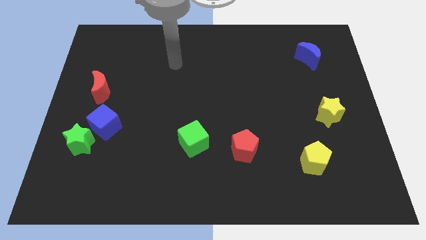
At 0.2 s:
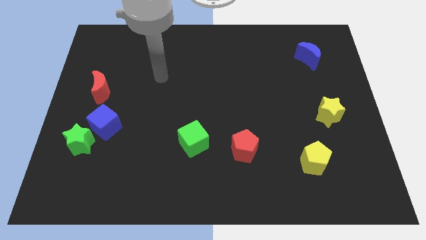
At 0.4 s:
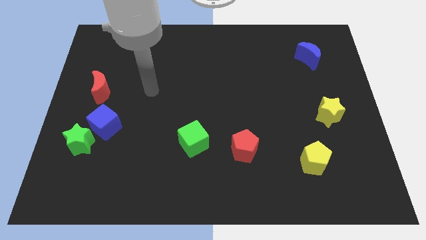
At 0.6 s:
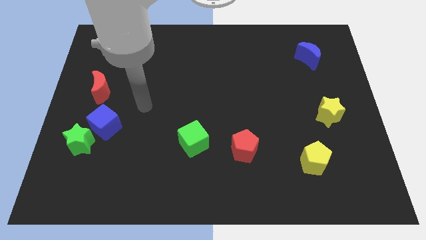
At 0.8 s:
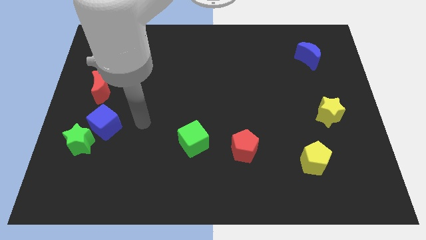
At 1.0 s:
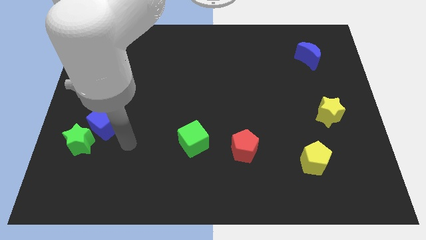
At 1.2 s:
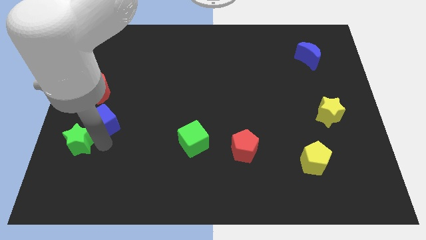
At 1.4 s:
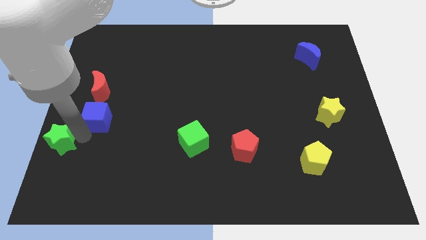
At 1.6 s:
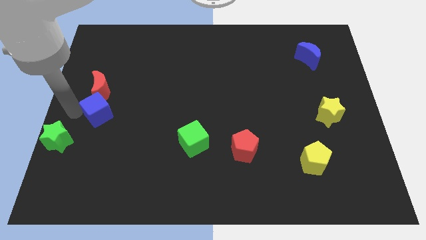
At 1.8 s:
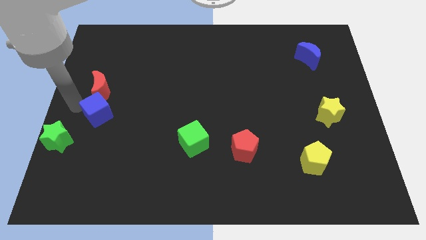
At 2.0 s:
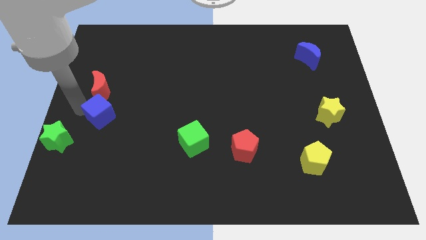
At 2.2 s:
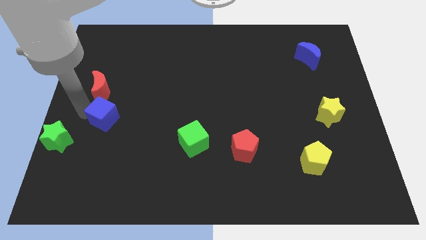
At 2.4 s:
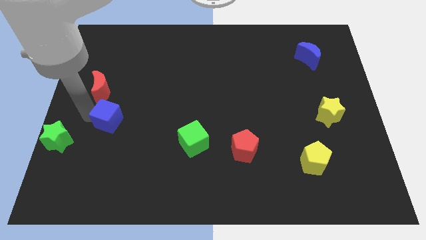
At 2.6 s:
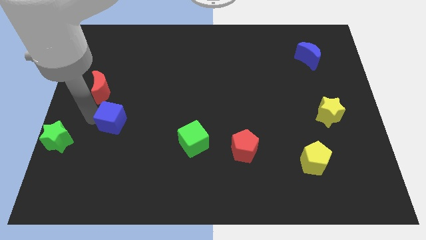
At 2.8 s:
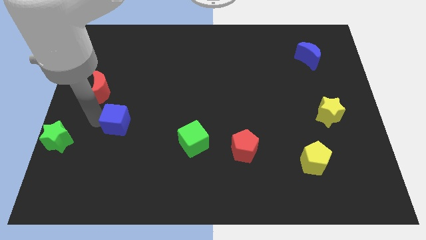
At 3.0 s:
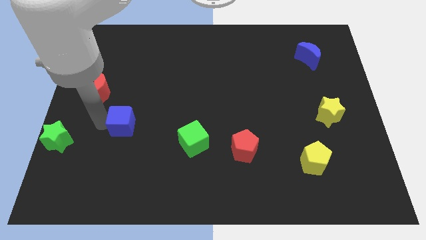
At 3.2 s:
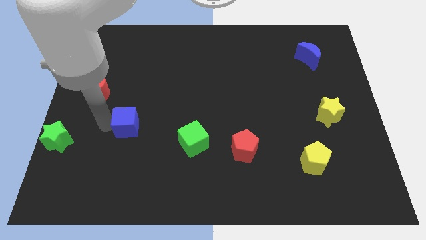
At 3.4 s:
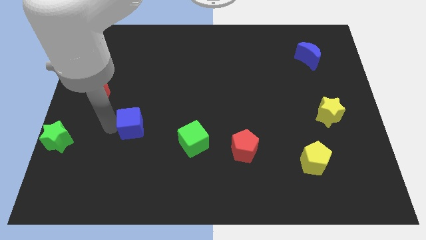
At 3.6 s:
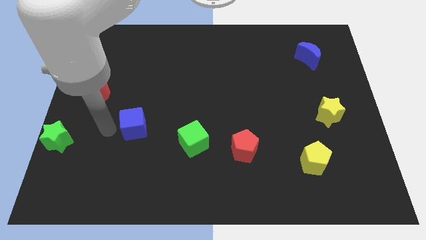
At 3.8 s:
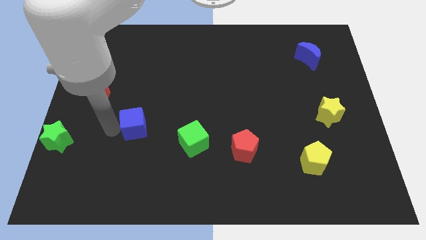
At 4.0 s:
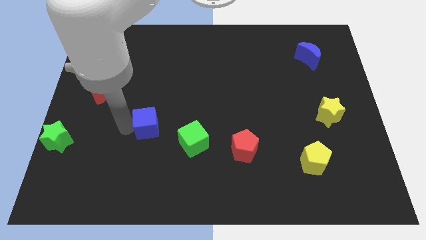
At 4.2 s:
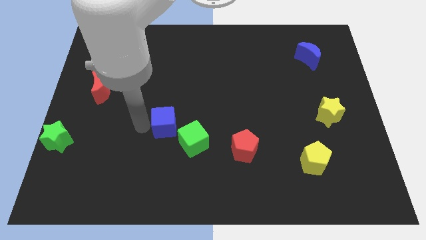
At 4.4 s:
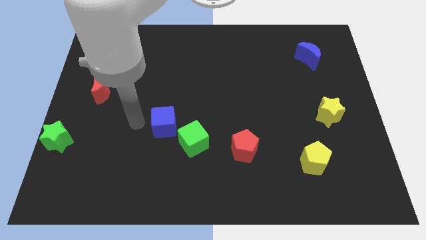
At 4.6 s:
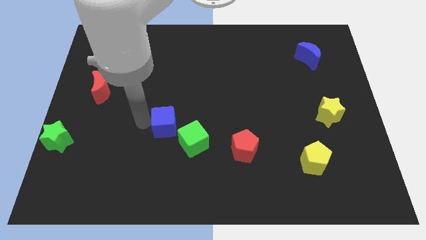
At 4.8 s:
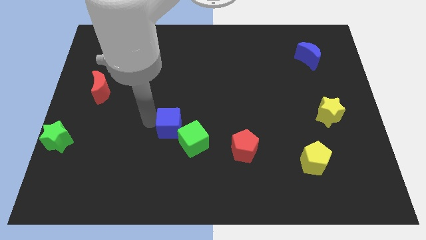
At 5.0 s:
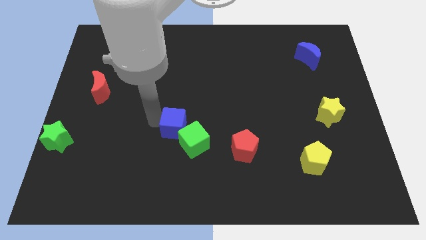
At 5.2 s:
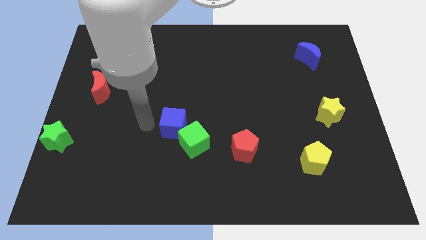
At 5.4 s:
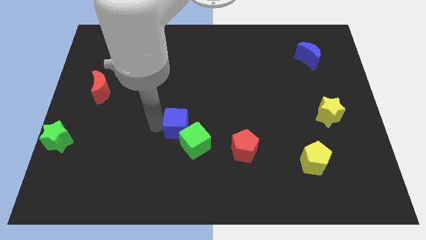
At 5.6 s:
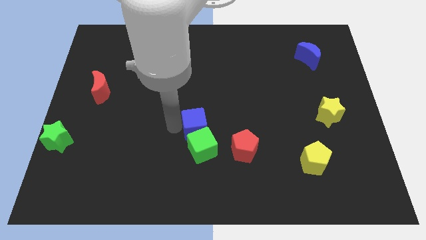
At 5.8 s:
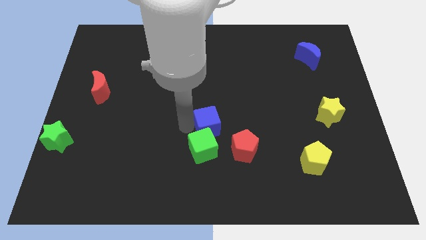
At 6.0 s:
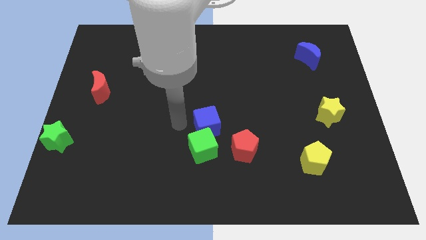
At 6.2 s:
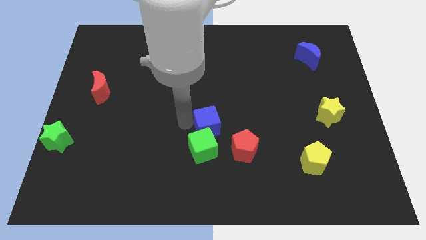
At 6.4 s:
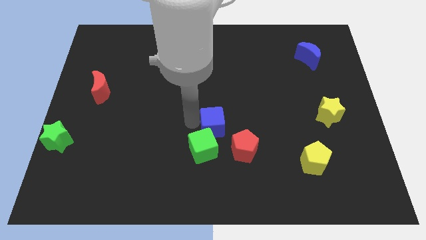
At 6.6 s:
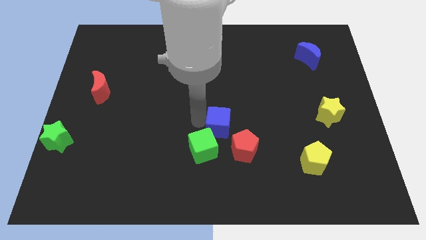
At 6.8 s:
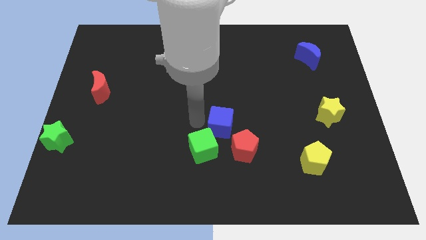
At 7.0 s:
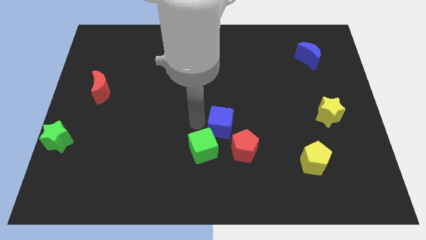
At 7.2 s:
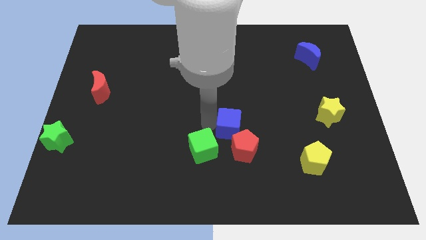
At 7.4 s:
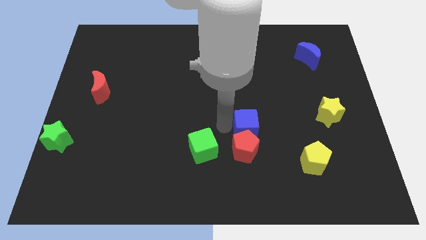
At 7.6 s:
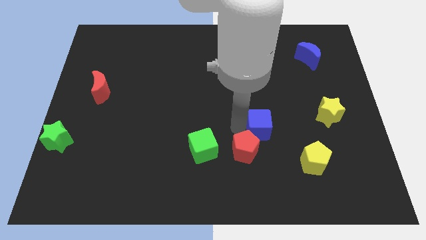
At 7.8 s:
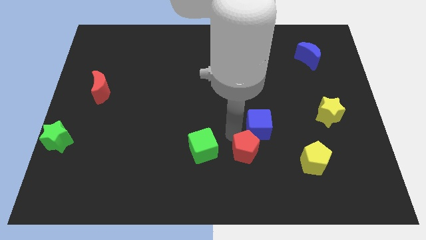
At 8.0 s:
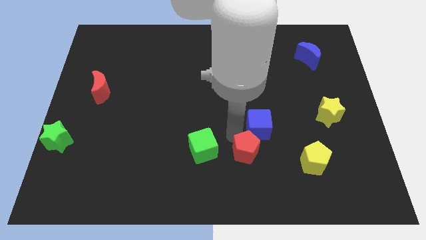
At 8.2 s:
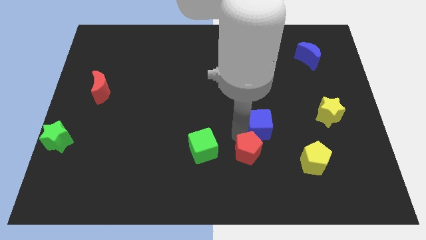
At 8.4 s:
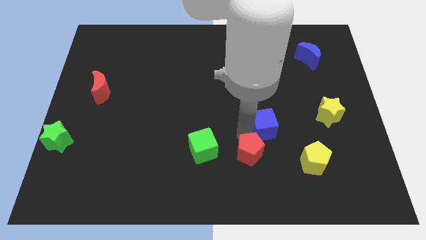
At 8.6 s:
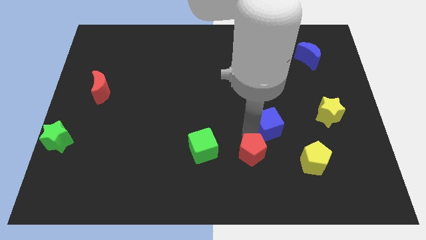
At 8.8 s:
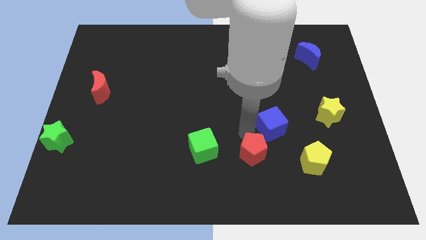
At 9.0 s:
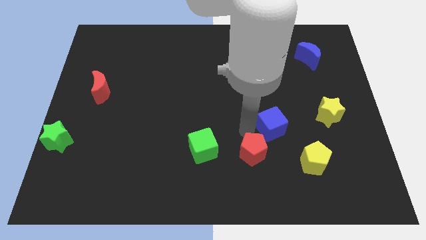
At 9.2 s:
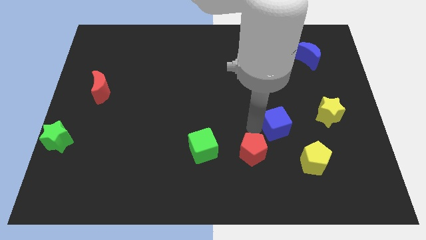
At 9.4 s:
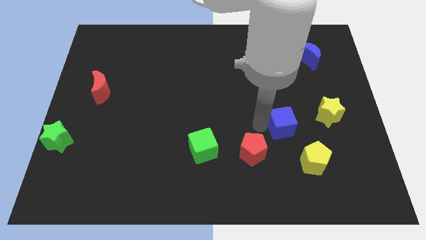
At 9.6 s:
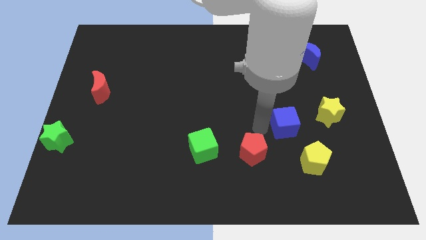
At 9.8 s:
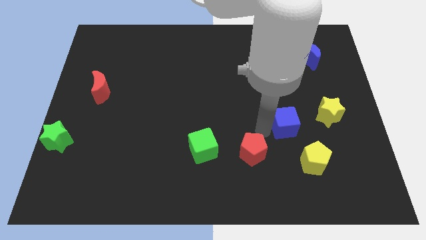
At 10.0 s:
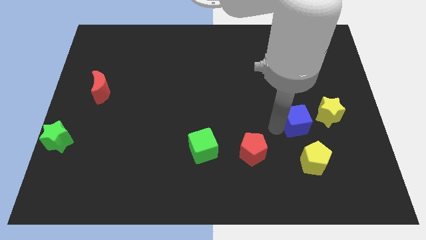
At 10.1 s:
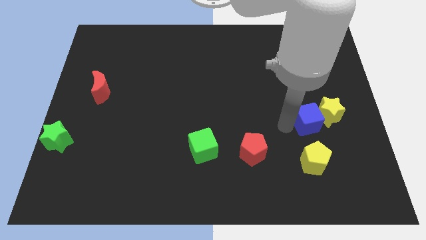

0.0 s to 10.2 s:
put the blue cube next to the yellow star

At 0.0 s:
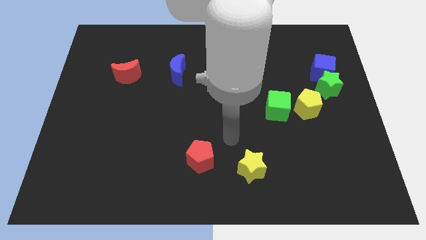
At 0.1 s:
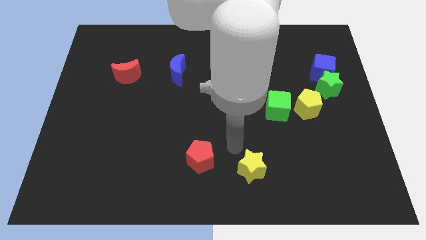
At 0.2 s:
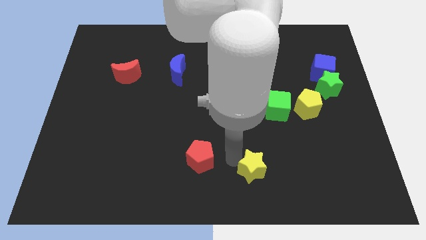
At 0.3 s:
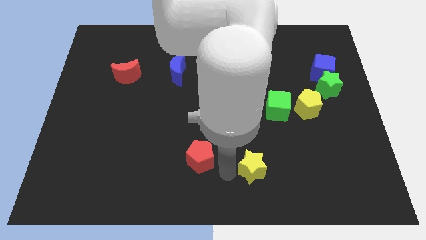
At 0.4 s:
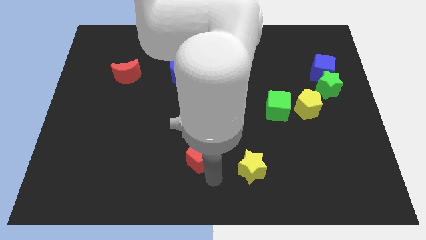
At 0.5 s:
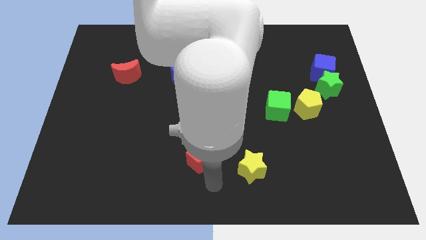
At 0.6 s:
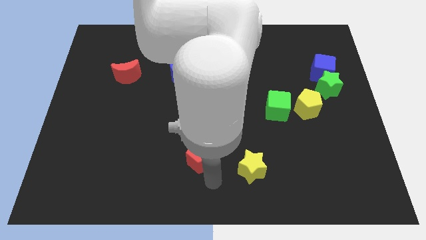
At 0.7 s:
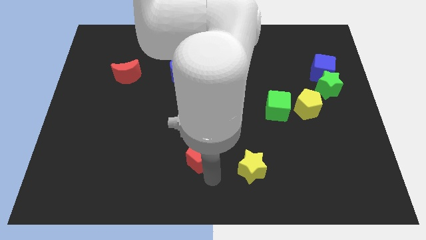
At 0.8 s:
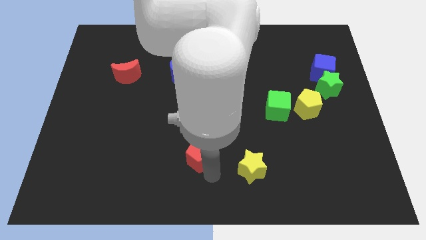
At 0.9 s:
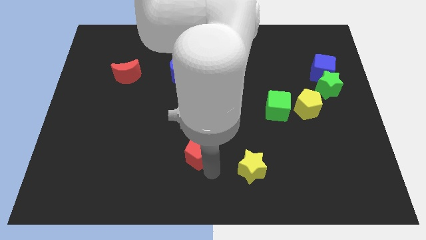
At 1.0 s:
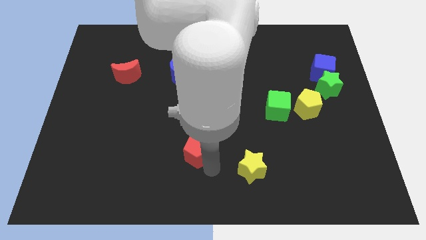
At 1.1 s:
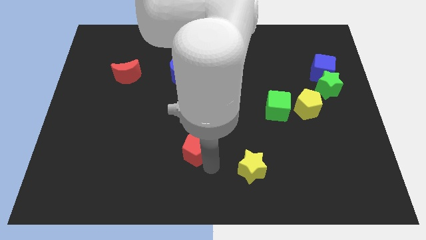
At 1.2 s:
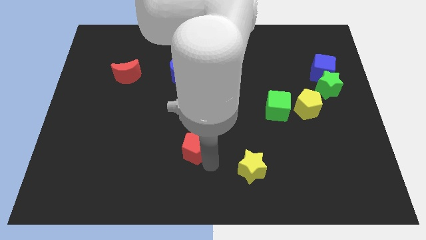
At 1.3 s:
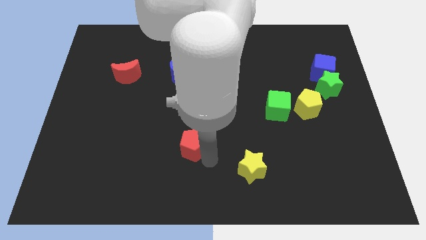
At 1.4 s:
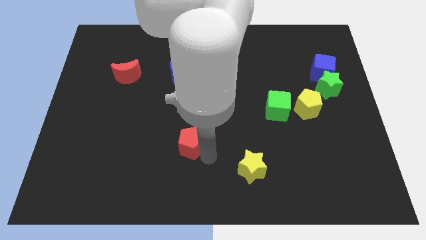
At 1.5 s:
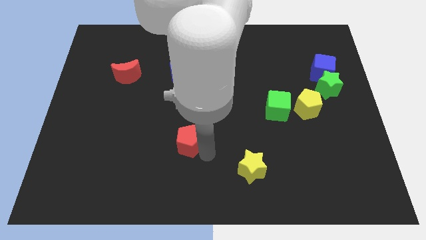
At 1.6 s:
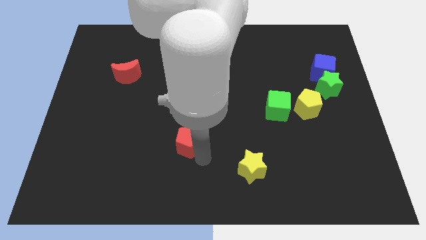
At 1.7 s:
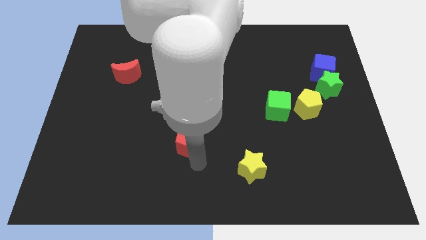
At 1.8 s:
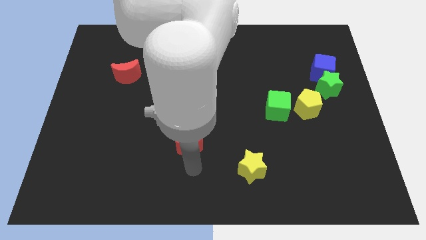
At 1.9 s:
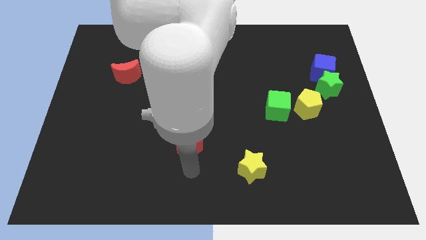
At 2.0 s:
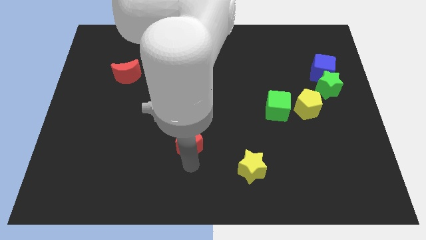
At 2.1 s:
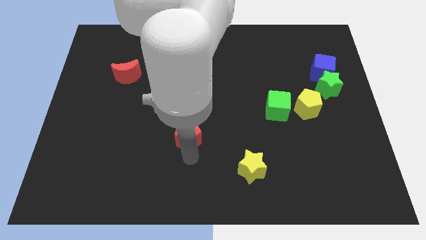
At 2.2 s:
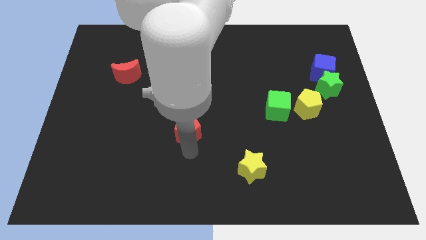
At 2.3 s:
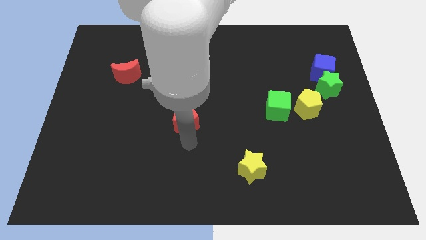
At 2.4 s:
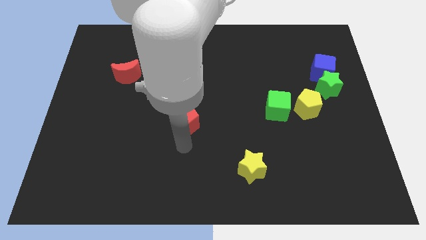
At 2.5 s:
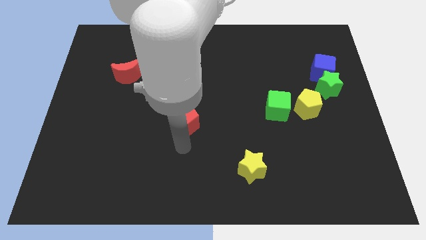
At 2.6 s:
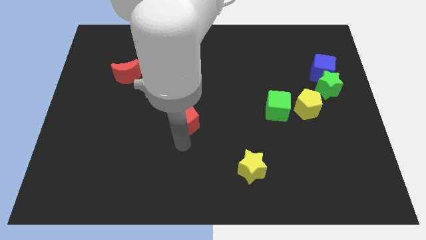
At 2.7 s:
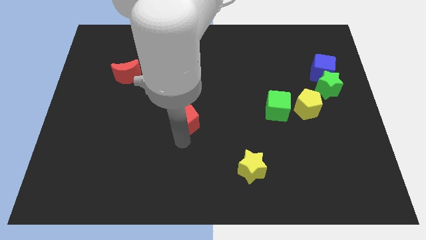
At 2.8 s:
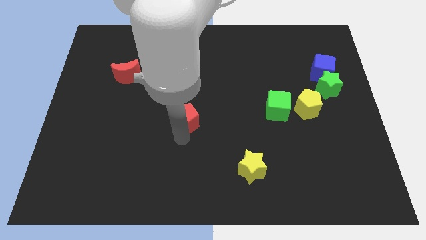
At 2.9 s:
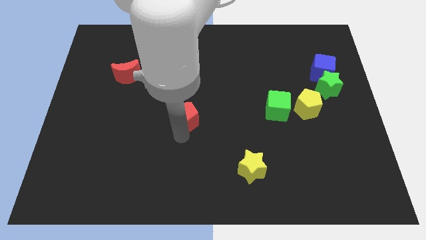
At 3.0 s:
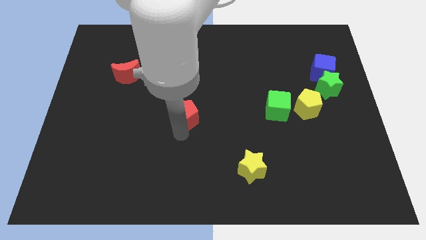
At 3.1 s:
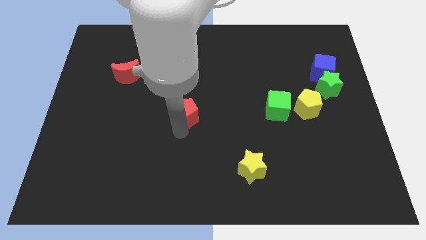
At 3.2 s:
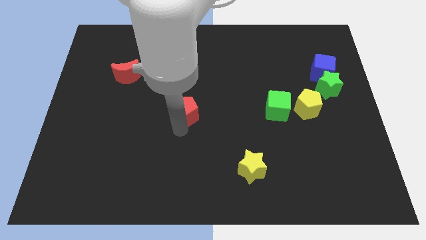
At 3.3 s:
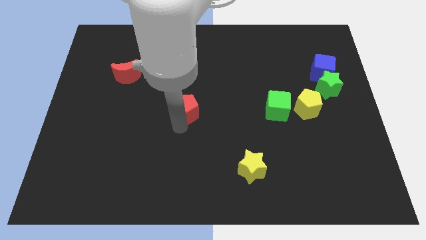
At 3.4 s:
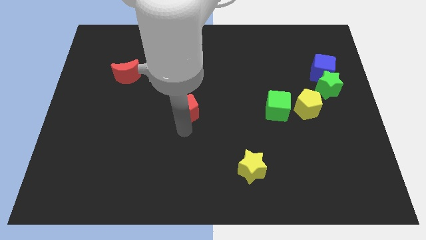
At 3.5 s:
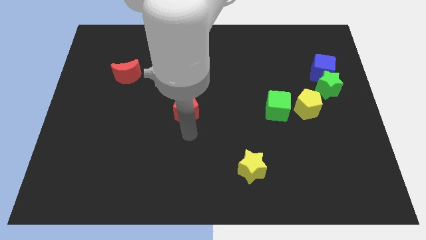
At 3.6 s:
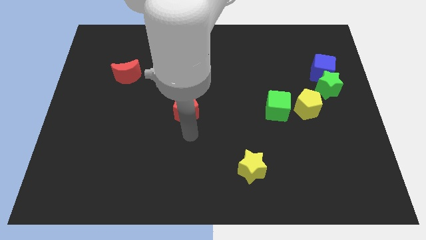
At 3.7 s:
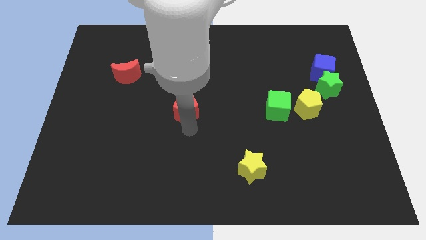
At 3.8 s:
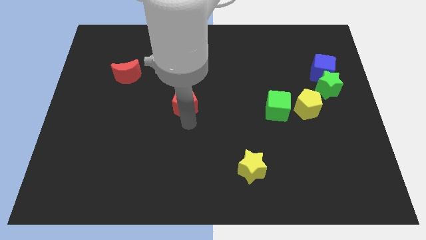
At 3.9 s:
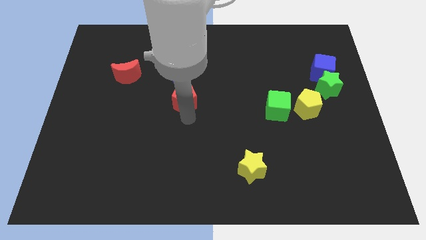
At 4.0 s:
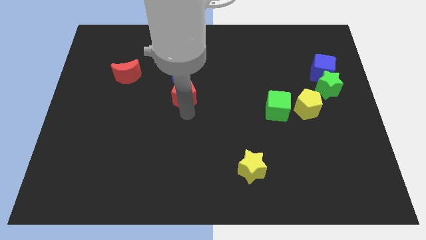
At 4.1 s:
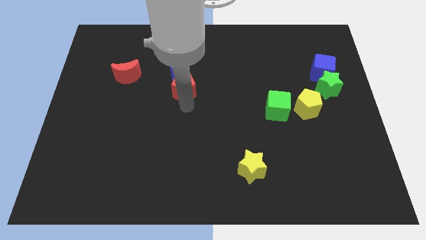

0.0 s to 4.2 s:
move the red pentagon to the blue moon
